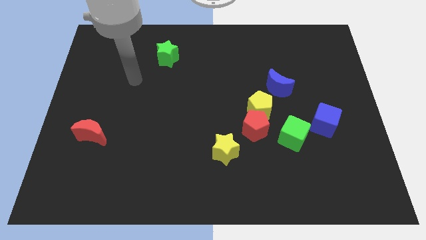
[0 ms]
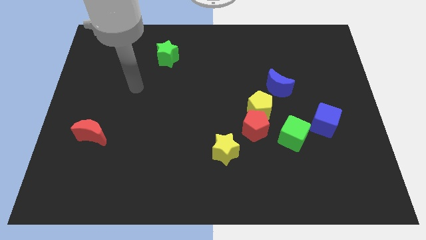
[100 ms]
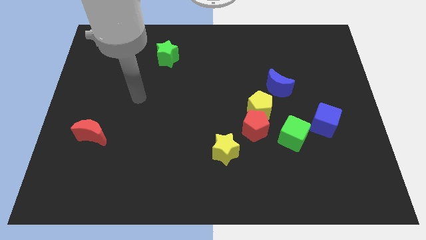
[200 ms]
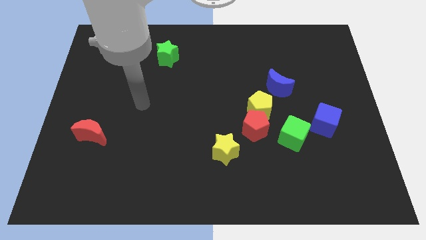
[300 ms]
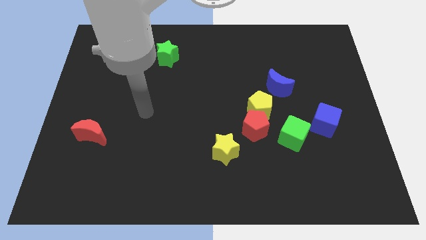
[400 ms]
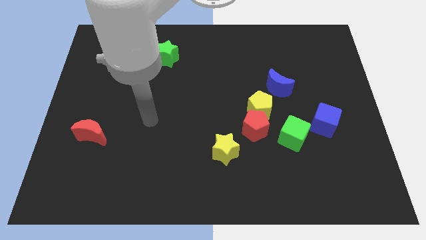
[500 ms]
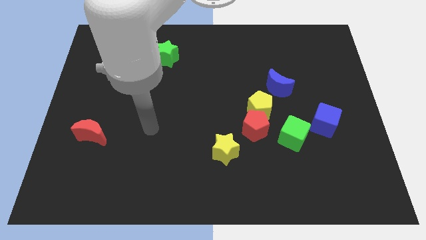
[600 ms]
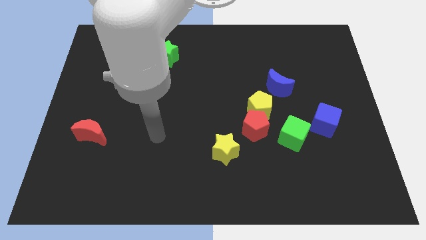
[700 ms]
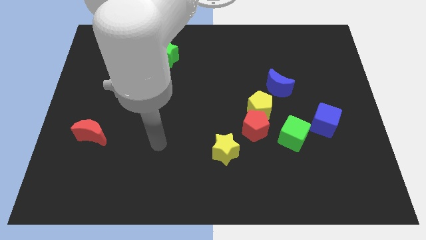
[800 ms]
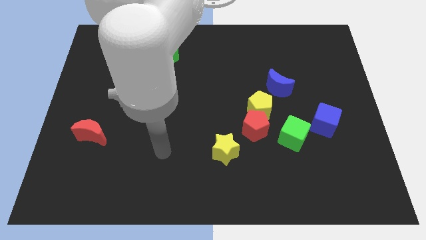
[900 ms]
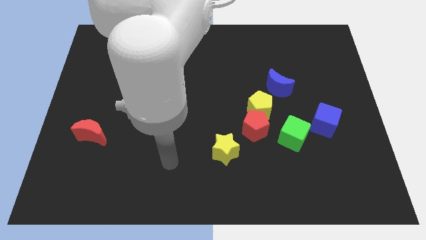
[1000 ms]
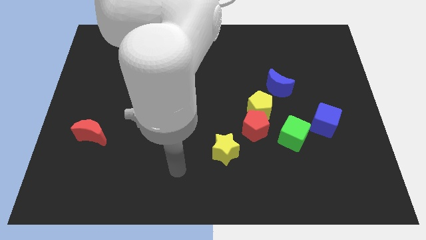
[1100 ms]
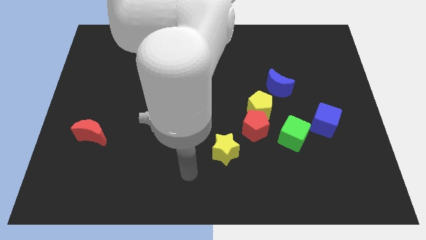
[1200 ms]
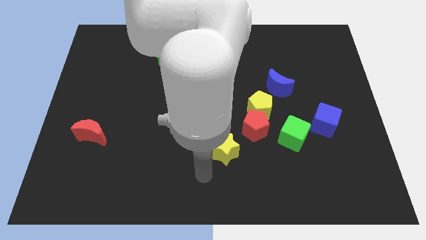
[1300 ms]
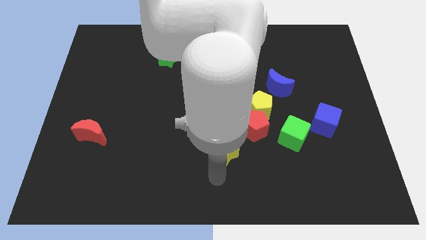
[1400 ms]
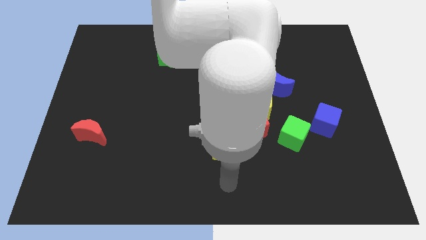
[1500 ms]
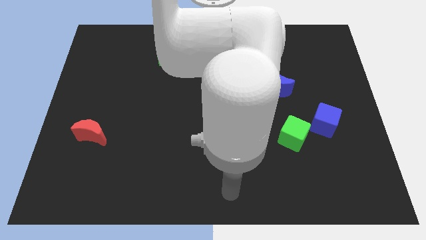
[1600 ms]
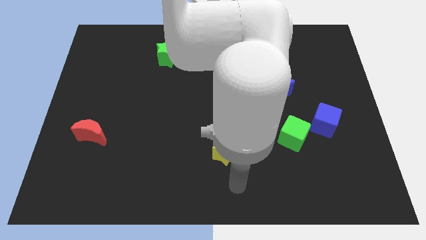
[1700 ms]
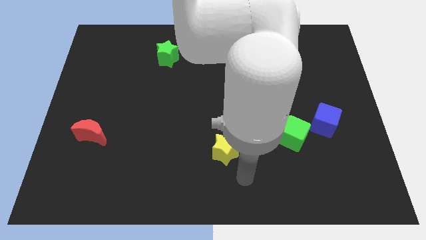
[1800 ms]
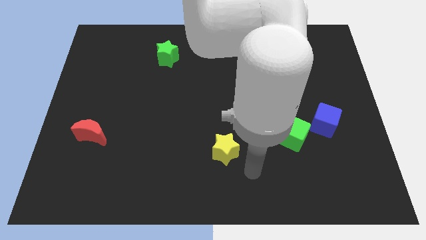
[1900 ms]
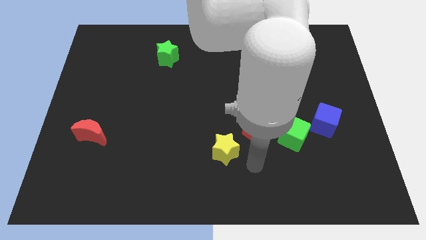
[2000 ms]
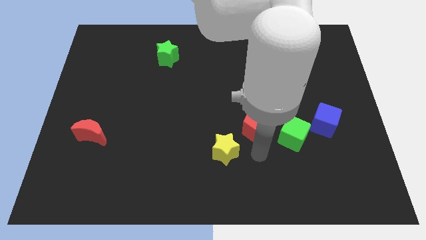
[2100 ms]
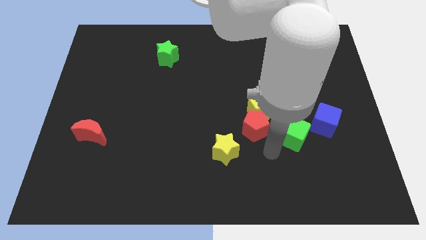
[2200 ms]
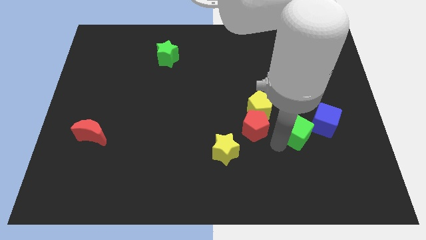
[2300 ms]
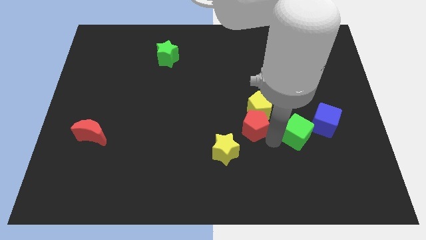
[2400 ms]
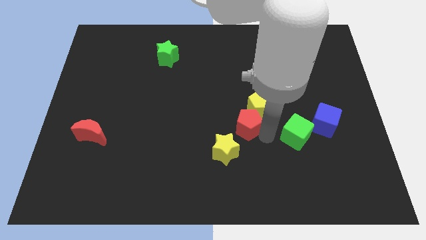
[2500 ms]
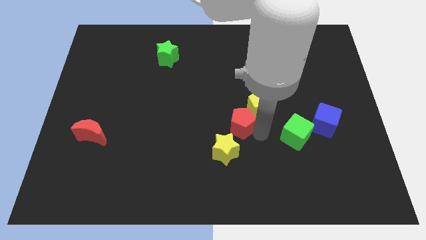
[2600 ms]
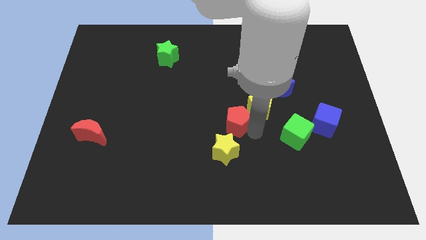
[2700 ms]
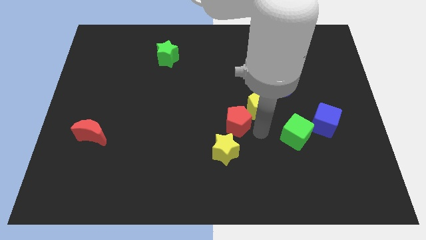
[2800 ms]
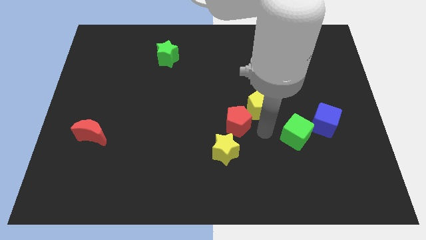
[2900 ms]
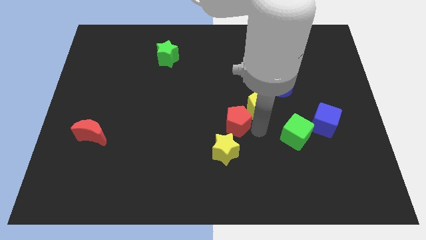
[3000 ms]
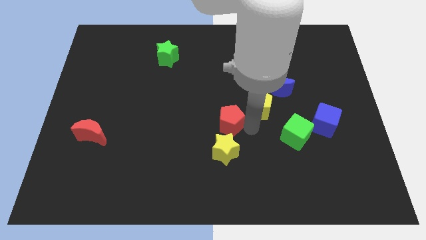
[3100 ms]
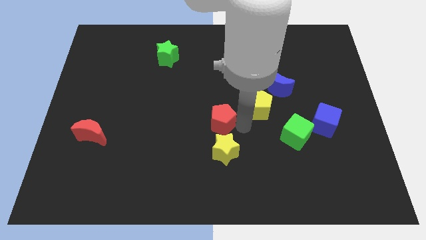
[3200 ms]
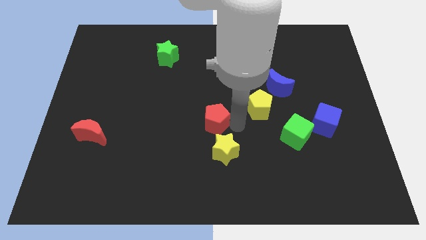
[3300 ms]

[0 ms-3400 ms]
pull the red pentagon apart from the yellow pentagon, green cube, and yellow star

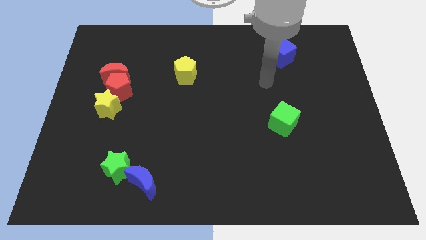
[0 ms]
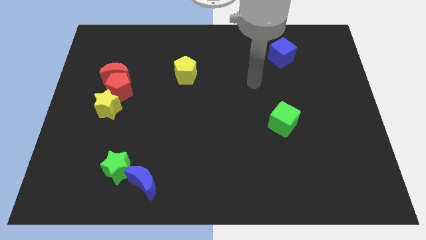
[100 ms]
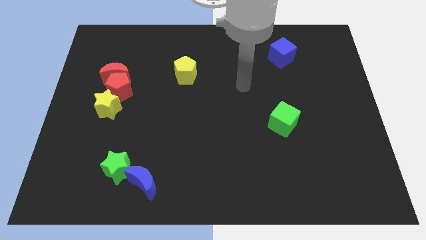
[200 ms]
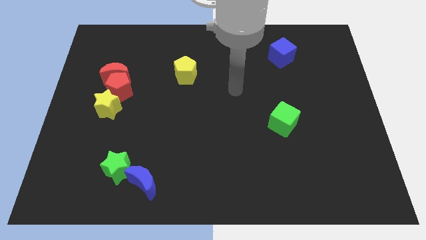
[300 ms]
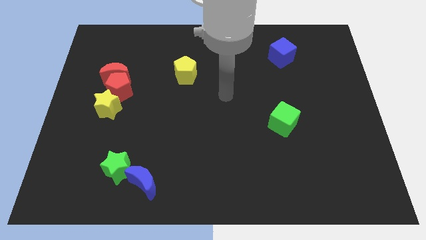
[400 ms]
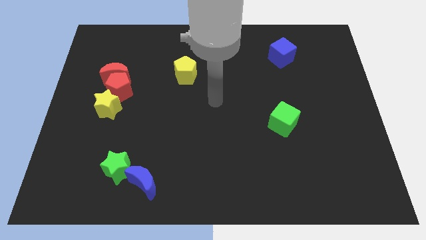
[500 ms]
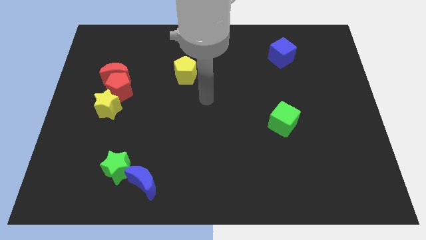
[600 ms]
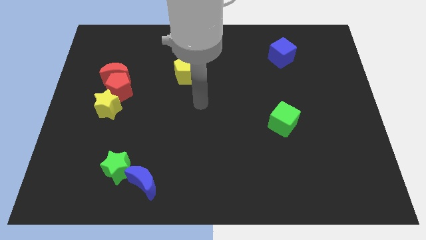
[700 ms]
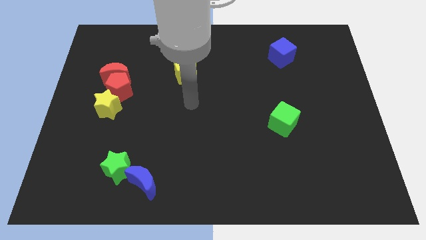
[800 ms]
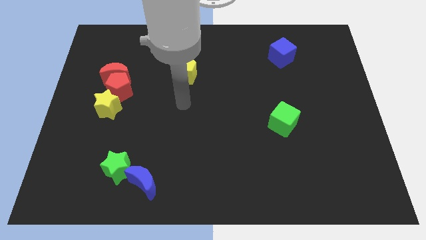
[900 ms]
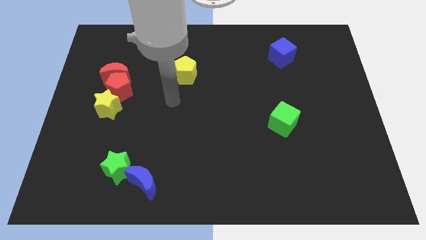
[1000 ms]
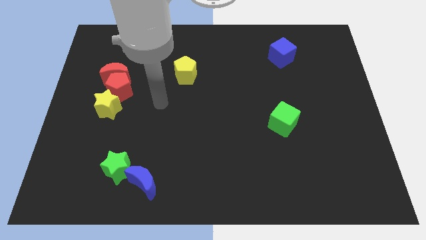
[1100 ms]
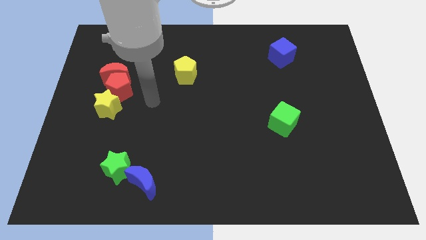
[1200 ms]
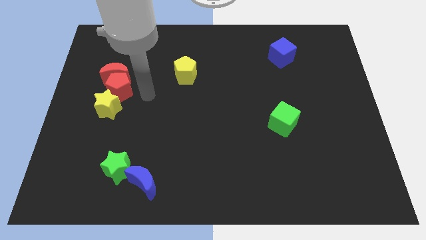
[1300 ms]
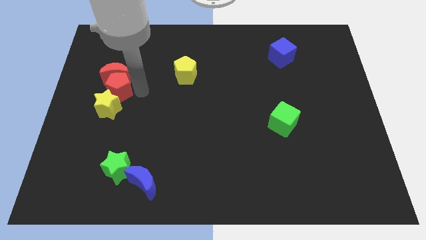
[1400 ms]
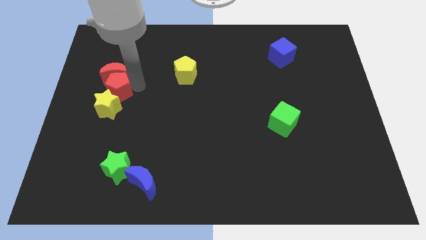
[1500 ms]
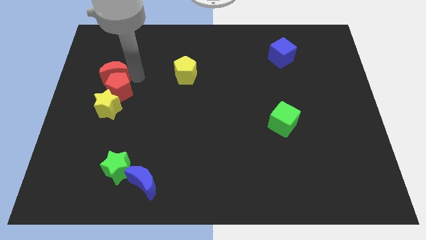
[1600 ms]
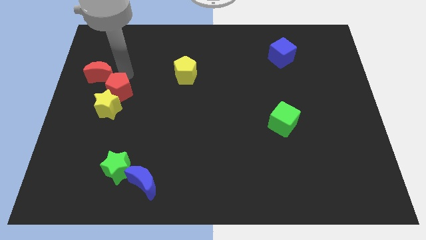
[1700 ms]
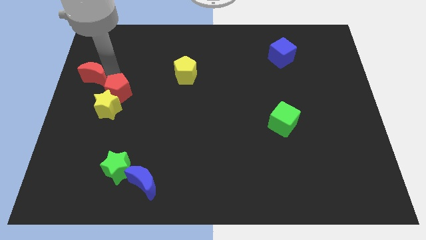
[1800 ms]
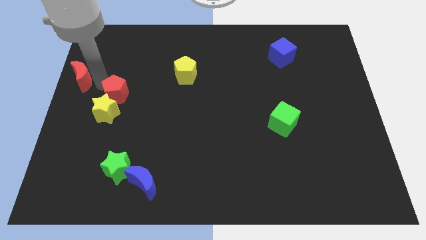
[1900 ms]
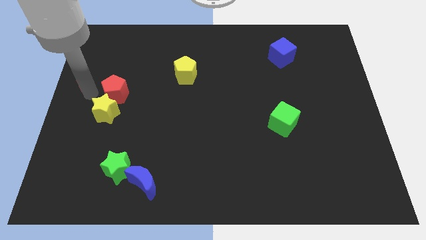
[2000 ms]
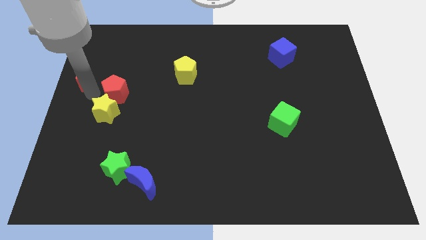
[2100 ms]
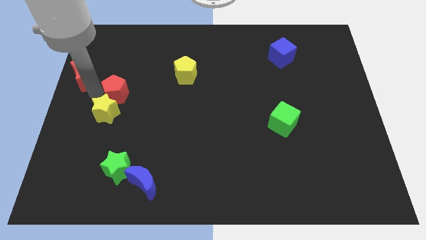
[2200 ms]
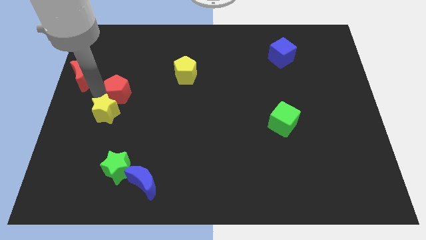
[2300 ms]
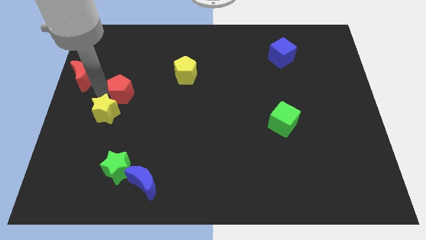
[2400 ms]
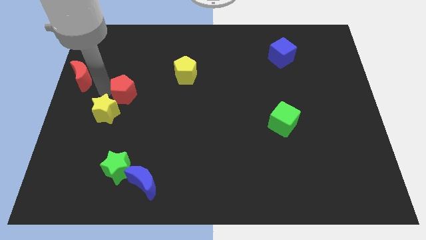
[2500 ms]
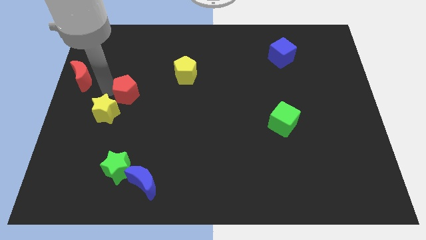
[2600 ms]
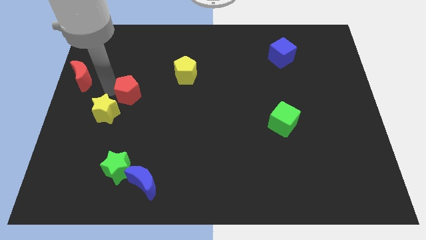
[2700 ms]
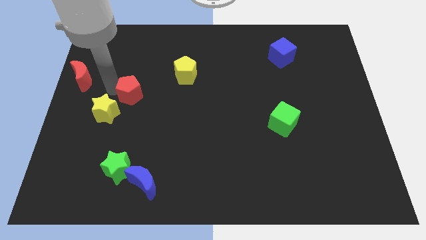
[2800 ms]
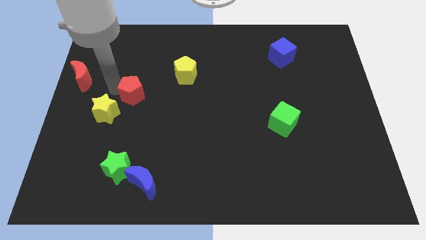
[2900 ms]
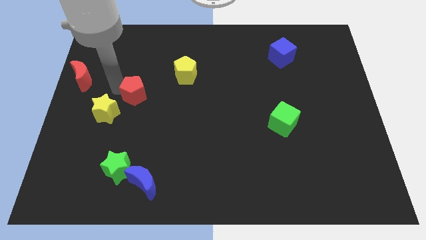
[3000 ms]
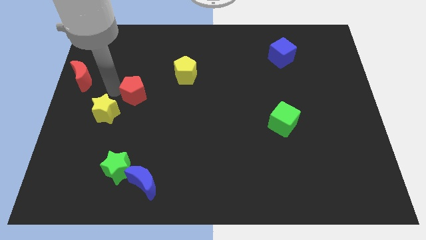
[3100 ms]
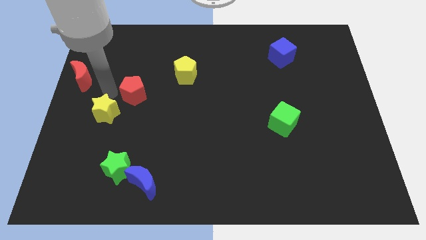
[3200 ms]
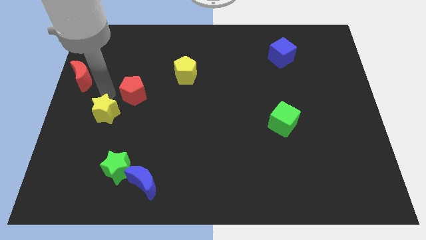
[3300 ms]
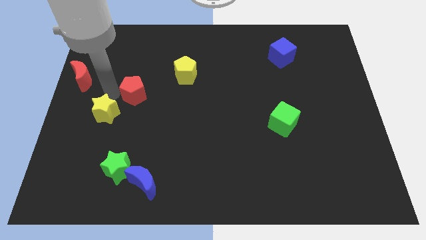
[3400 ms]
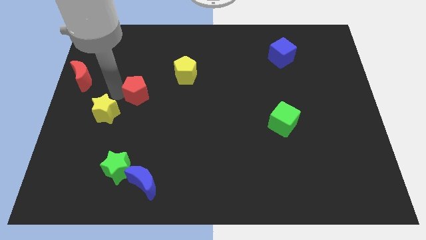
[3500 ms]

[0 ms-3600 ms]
separate the red pentagon from the red moon and yellow star

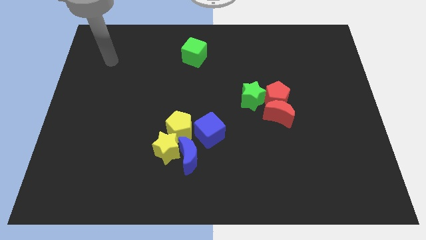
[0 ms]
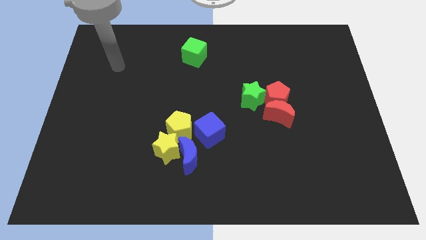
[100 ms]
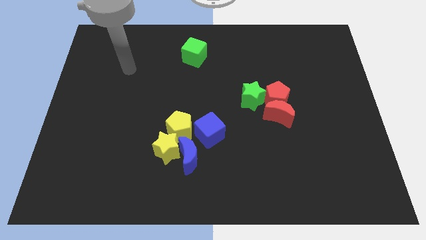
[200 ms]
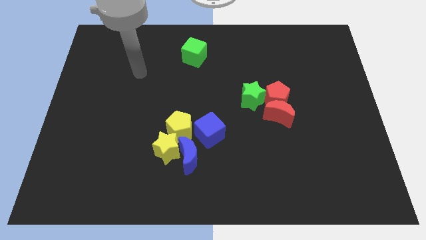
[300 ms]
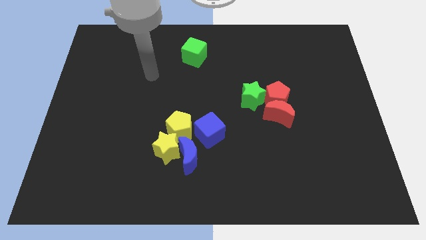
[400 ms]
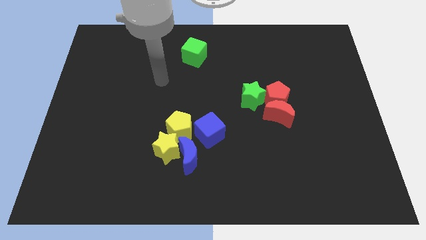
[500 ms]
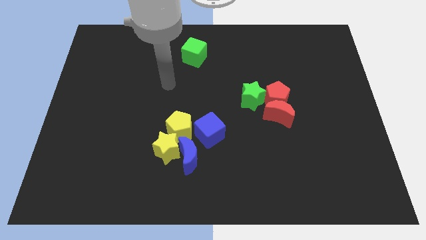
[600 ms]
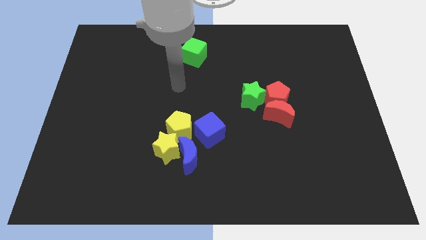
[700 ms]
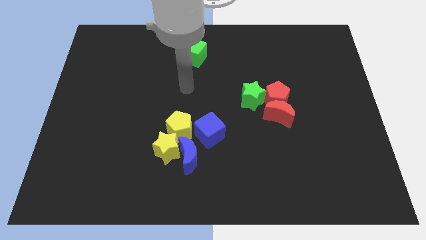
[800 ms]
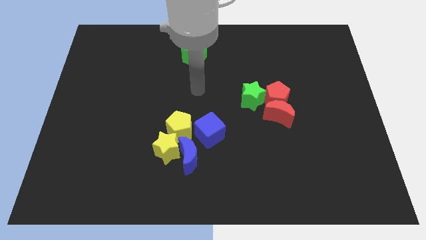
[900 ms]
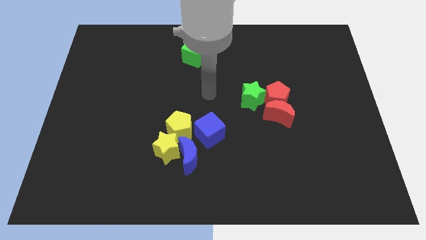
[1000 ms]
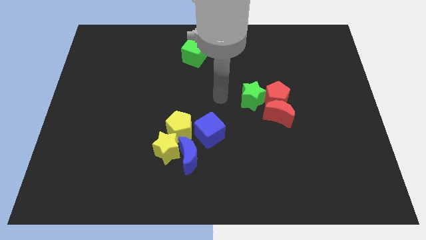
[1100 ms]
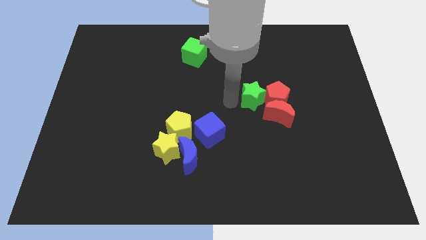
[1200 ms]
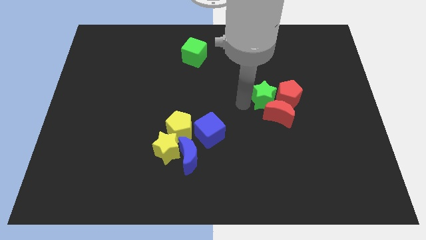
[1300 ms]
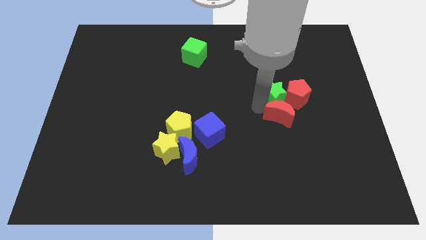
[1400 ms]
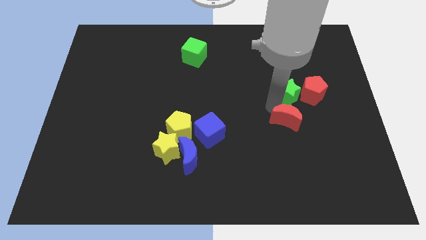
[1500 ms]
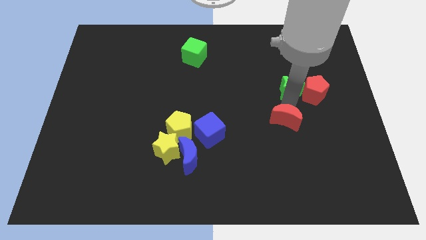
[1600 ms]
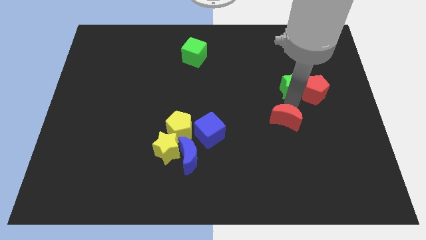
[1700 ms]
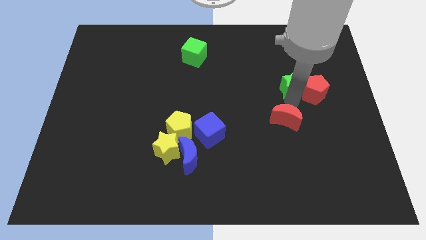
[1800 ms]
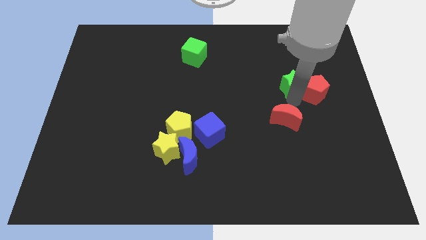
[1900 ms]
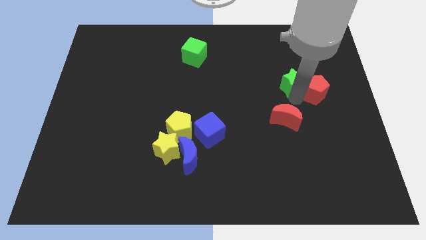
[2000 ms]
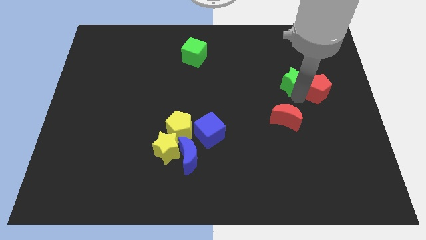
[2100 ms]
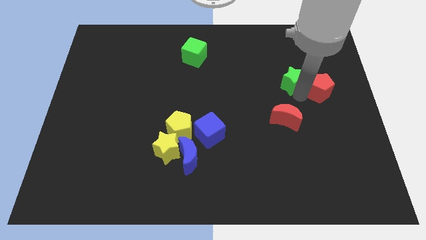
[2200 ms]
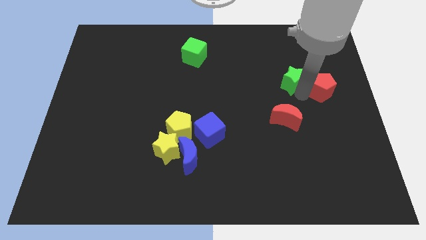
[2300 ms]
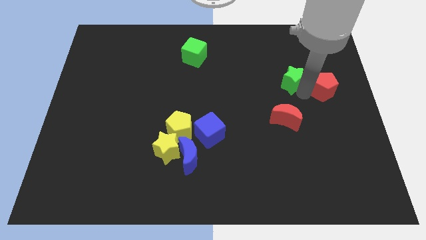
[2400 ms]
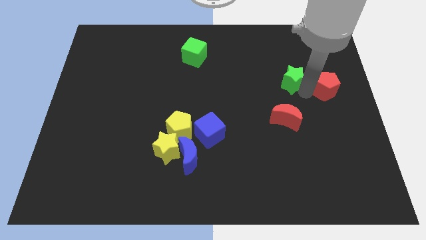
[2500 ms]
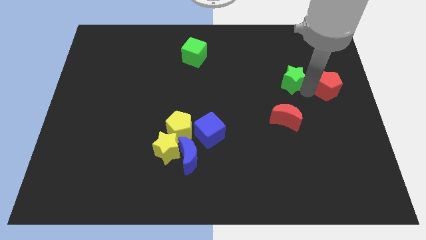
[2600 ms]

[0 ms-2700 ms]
move the red pentagon away from the red moon and green star
